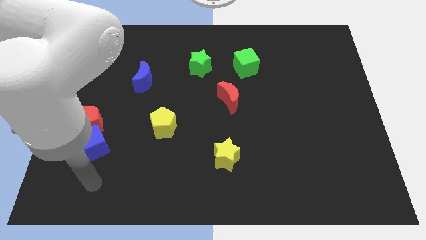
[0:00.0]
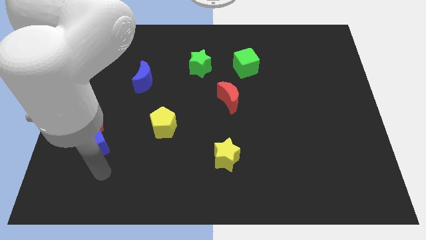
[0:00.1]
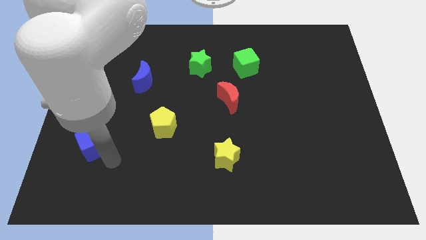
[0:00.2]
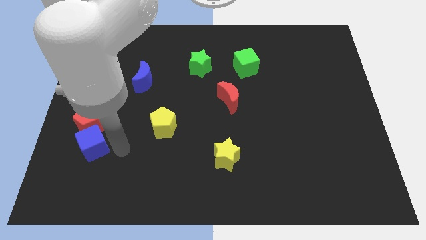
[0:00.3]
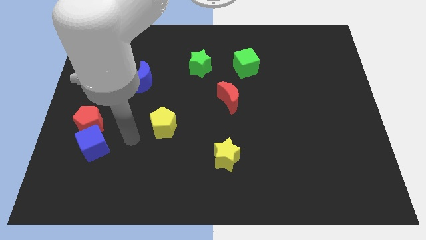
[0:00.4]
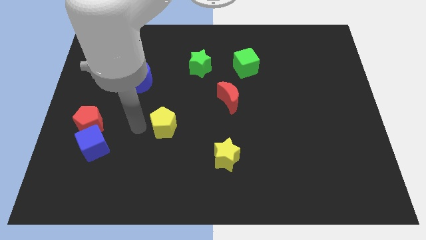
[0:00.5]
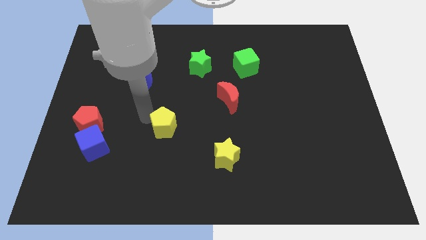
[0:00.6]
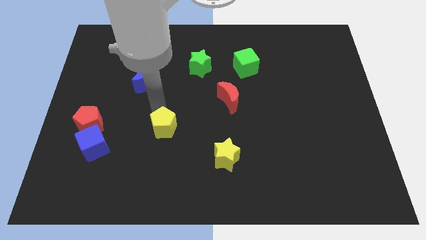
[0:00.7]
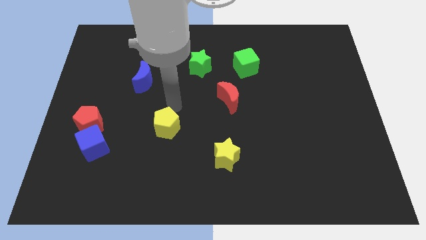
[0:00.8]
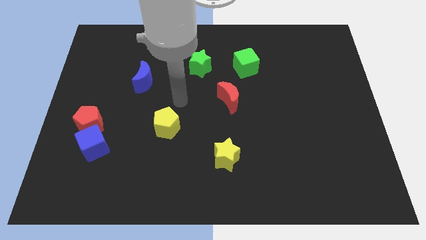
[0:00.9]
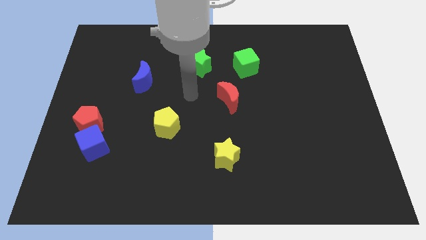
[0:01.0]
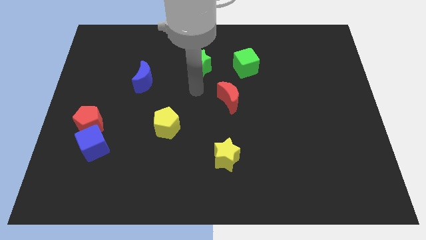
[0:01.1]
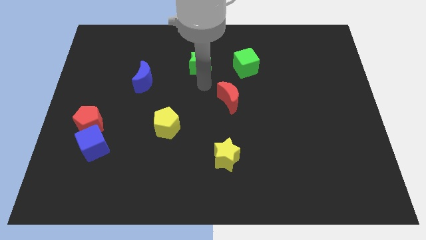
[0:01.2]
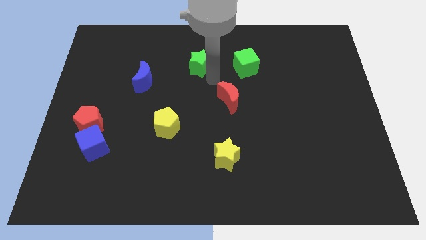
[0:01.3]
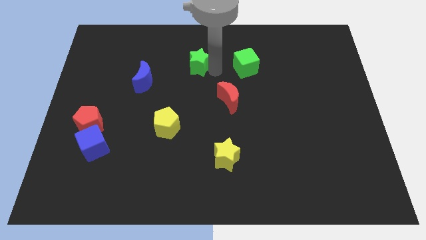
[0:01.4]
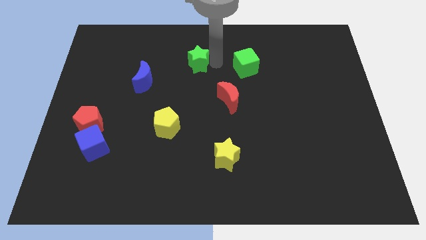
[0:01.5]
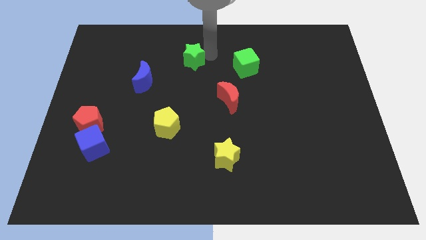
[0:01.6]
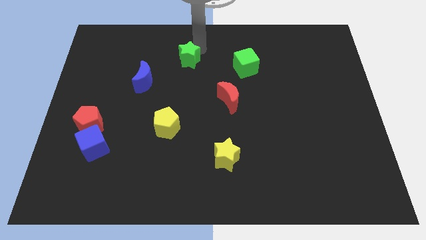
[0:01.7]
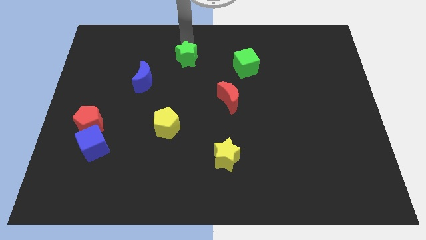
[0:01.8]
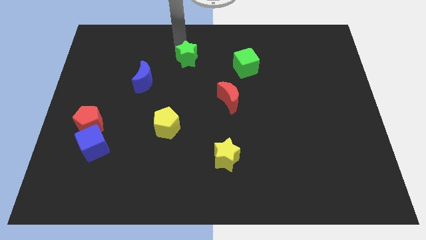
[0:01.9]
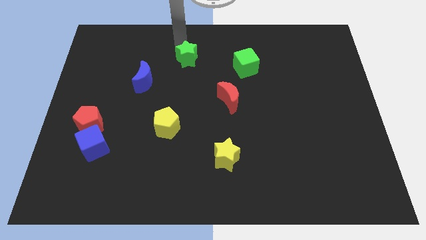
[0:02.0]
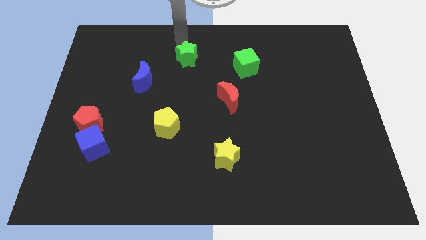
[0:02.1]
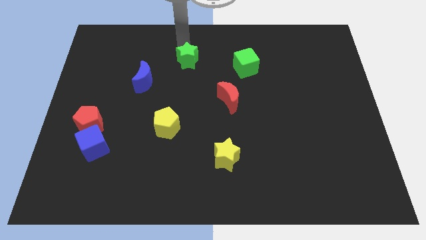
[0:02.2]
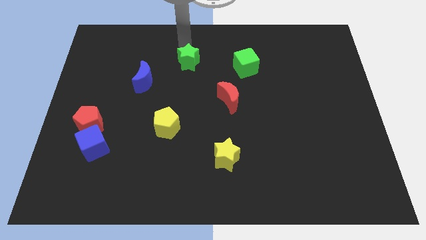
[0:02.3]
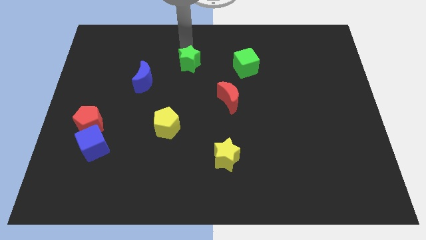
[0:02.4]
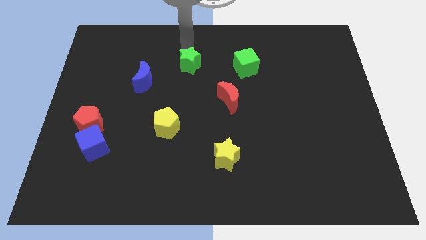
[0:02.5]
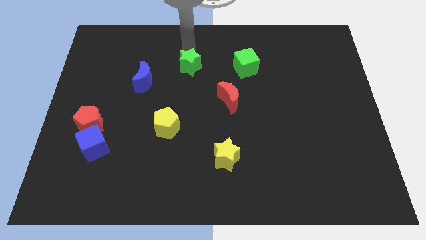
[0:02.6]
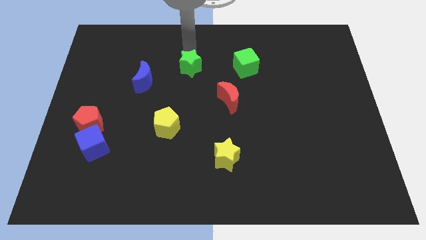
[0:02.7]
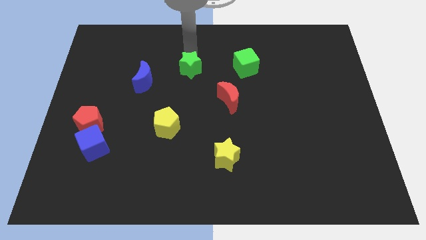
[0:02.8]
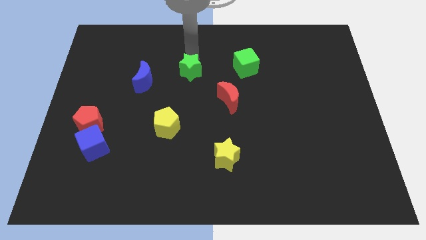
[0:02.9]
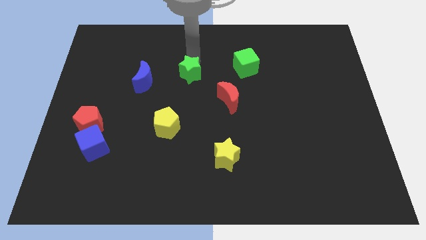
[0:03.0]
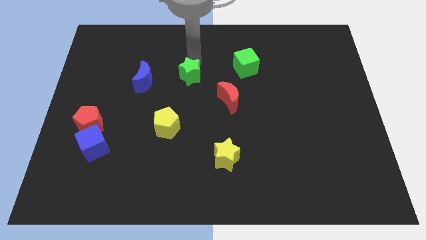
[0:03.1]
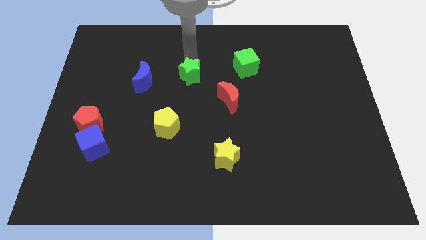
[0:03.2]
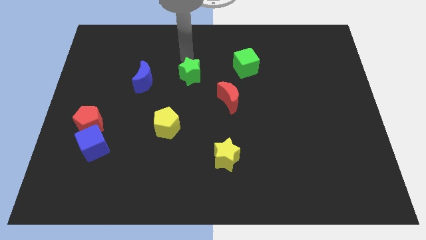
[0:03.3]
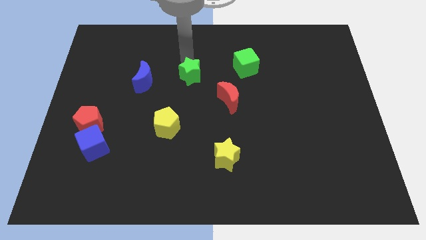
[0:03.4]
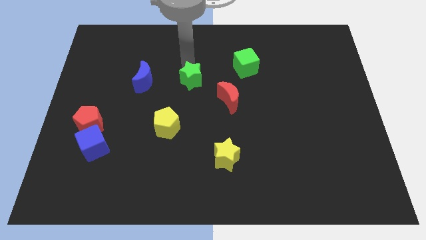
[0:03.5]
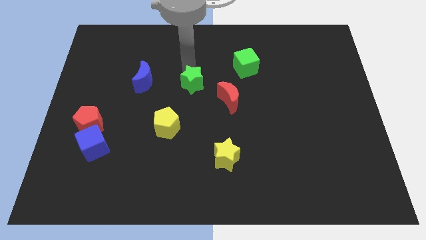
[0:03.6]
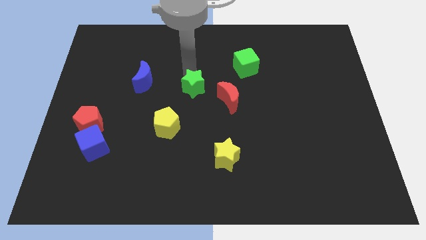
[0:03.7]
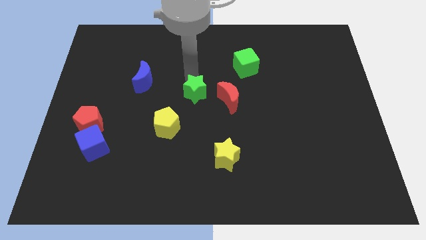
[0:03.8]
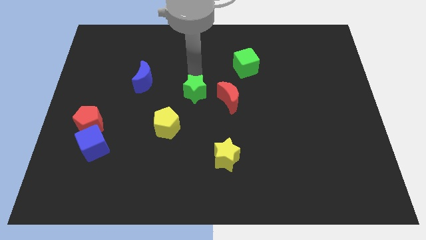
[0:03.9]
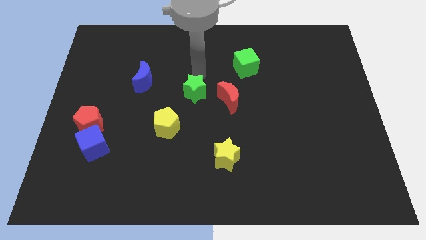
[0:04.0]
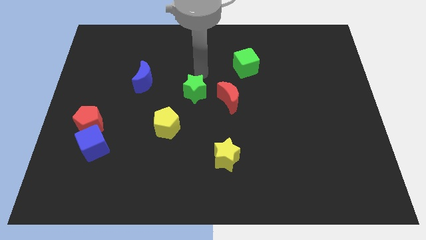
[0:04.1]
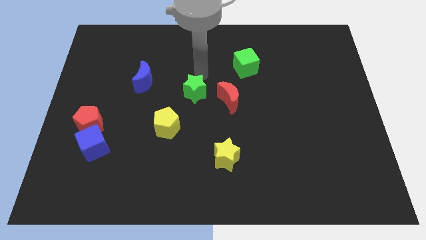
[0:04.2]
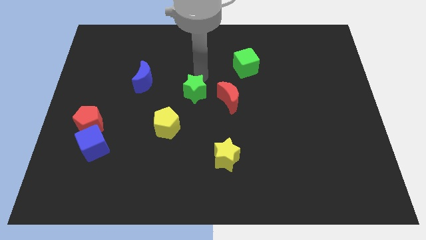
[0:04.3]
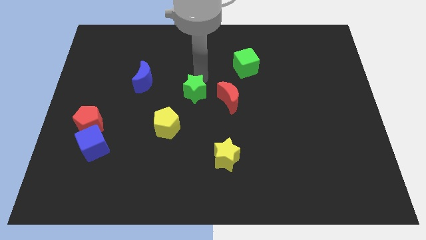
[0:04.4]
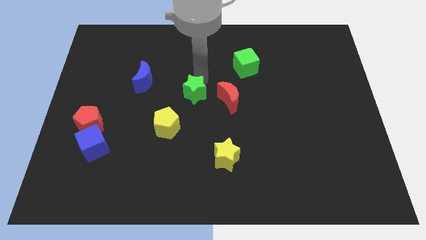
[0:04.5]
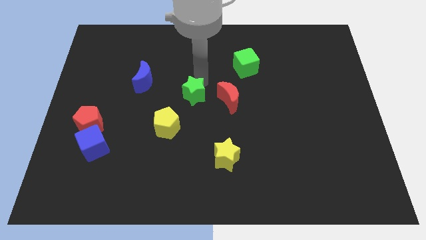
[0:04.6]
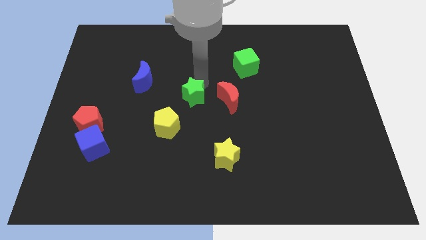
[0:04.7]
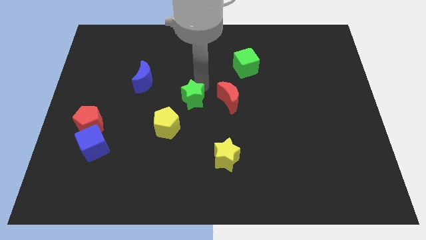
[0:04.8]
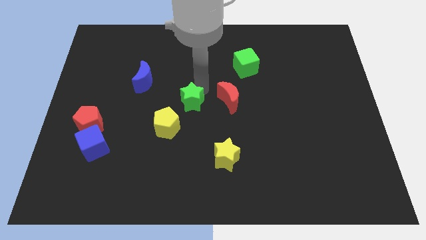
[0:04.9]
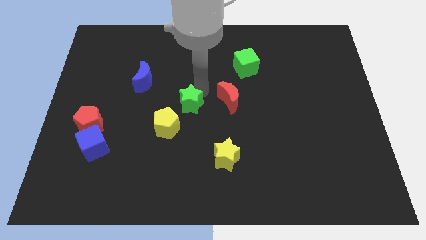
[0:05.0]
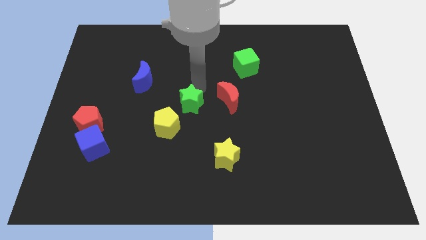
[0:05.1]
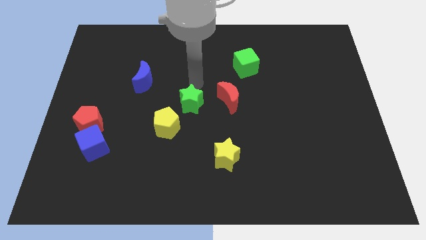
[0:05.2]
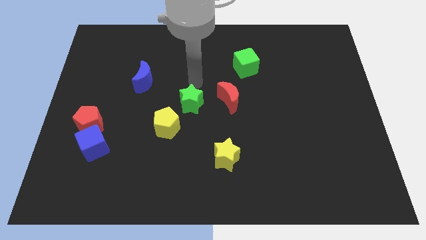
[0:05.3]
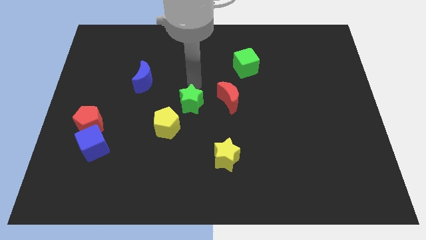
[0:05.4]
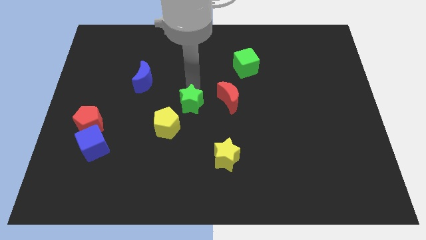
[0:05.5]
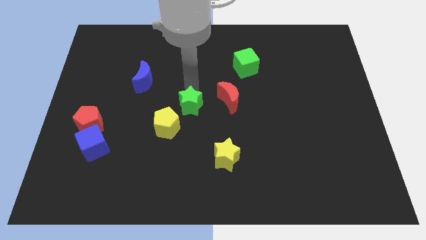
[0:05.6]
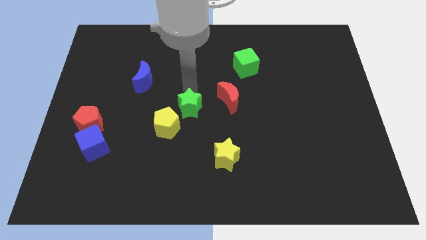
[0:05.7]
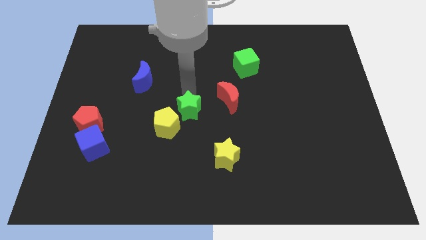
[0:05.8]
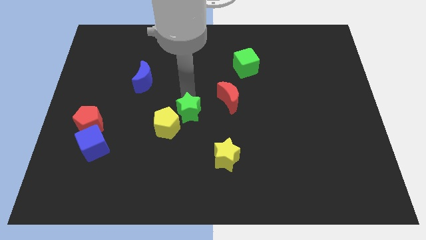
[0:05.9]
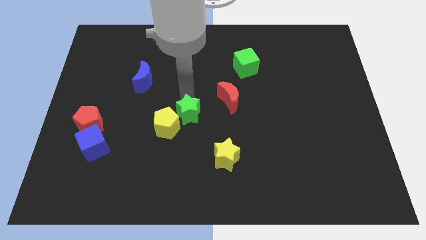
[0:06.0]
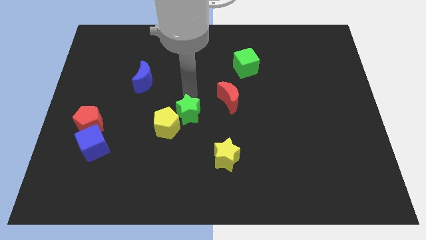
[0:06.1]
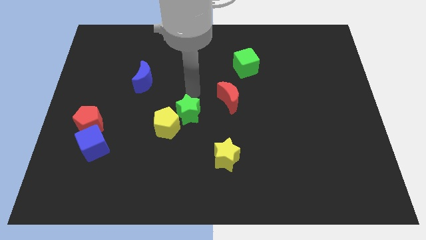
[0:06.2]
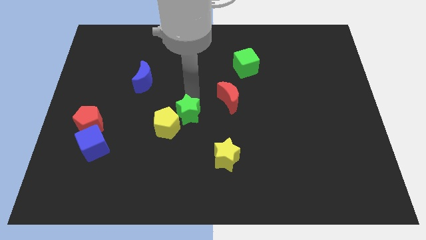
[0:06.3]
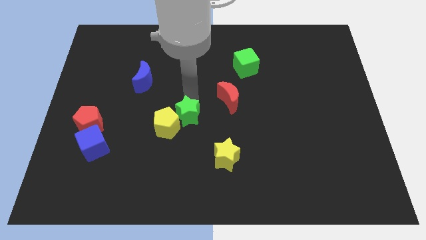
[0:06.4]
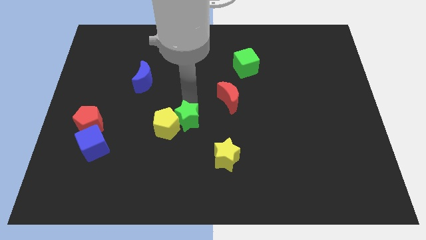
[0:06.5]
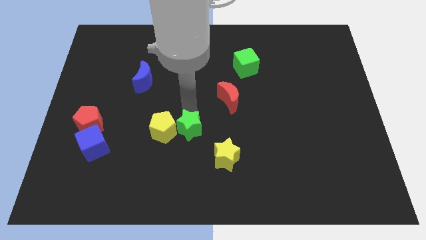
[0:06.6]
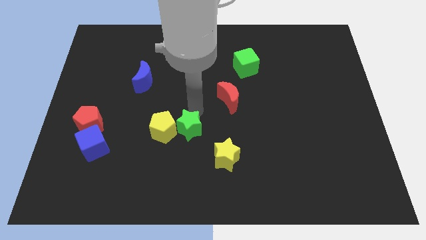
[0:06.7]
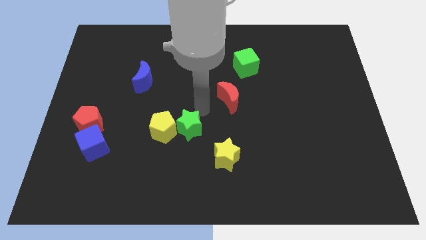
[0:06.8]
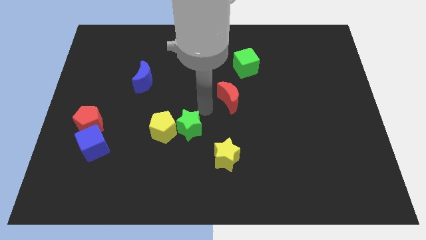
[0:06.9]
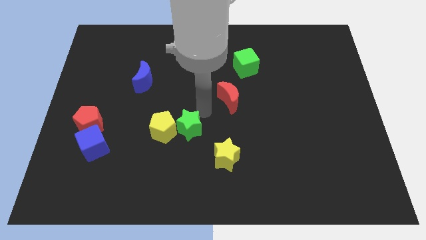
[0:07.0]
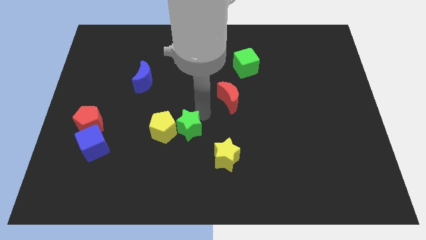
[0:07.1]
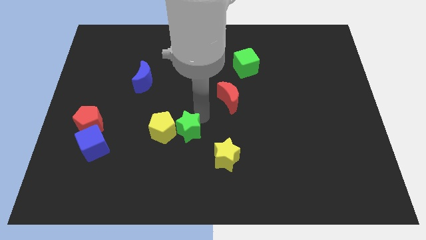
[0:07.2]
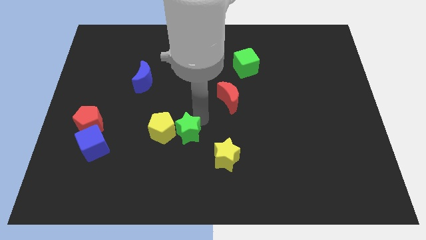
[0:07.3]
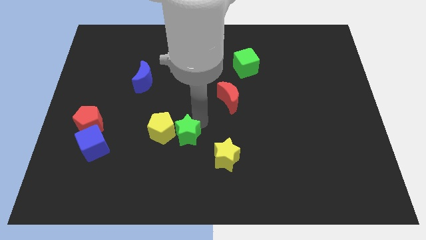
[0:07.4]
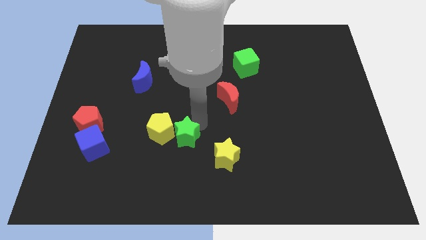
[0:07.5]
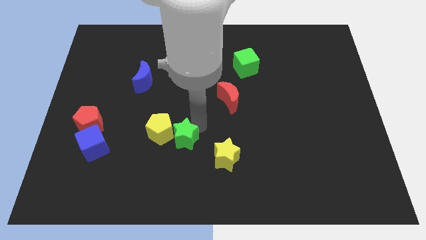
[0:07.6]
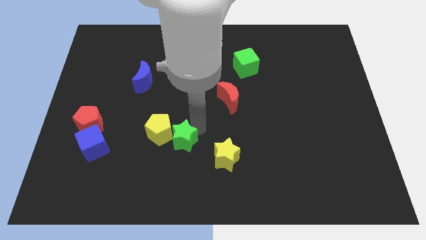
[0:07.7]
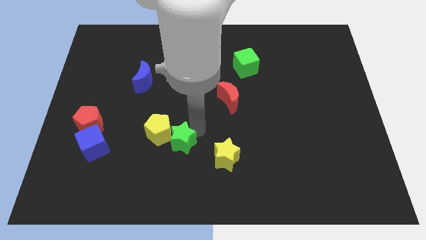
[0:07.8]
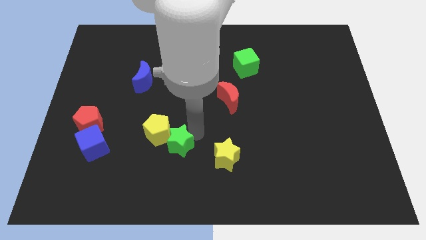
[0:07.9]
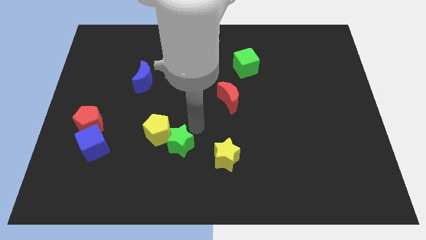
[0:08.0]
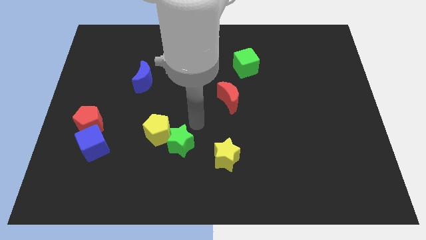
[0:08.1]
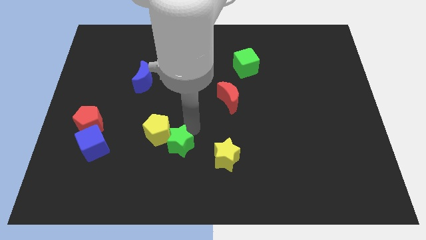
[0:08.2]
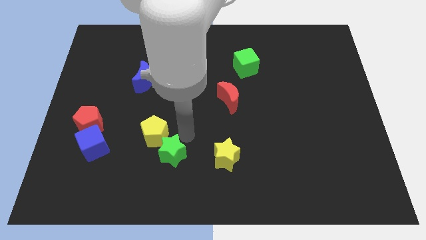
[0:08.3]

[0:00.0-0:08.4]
put the green star below the yellow pentagon

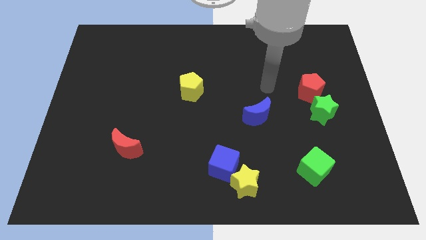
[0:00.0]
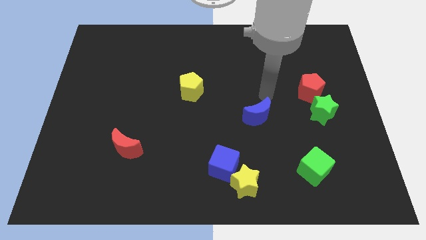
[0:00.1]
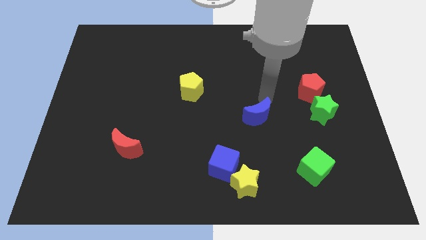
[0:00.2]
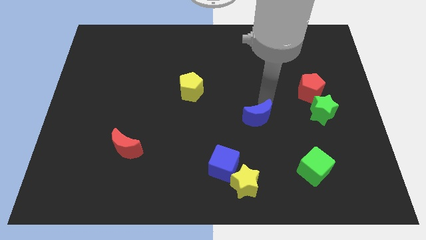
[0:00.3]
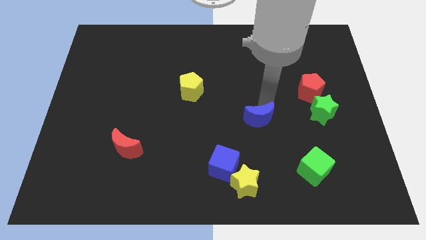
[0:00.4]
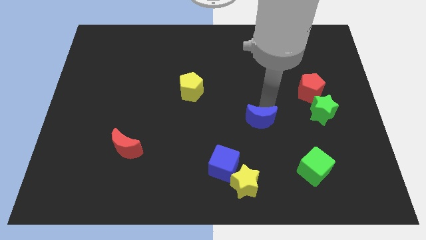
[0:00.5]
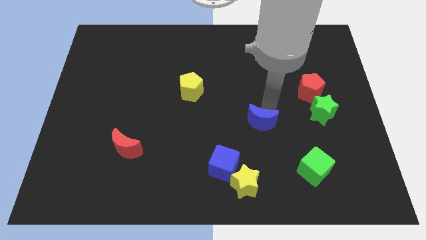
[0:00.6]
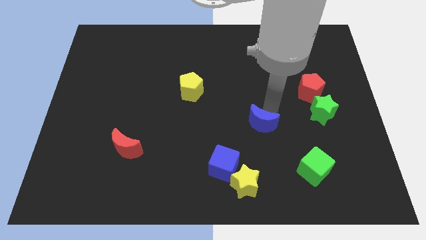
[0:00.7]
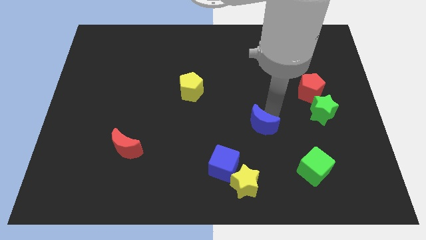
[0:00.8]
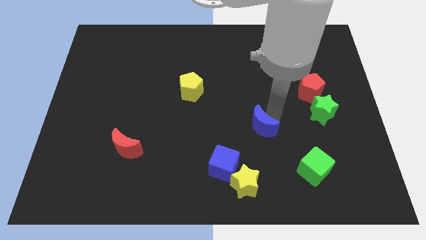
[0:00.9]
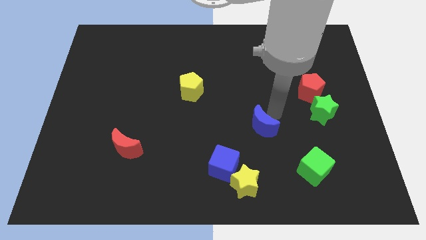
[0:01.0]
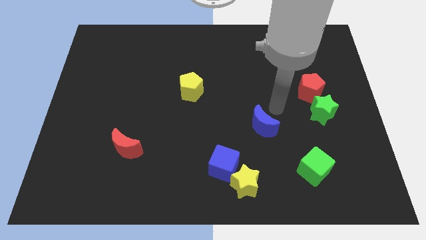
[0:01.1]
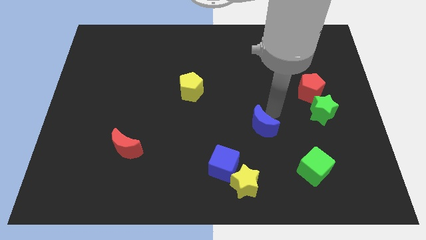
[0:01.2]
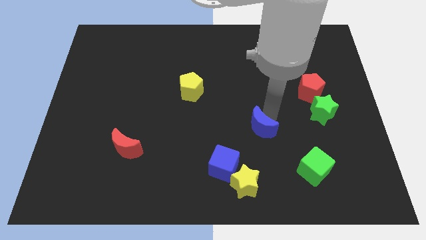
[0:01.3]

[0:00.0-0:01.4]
move the blue moon to the top right side of the blue cube
